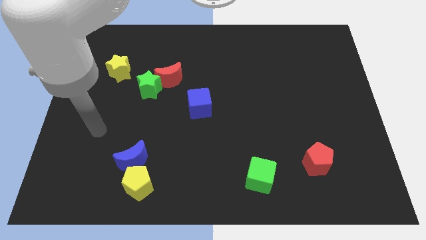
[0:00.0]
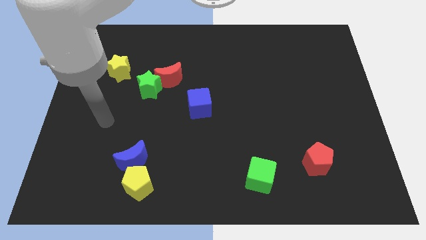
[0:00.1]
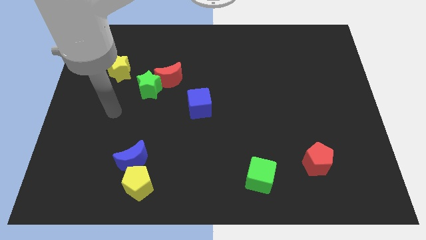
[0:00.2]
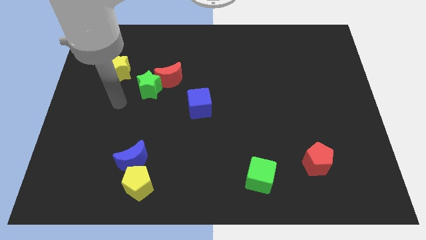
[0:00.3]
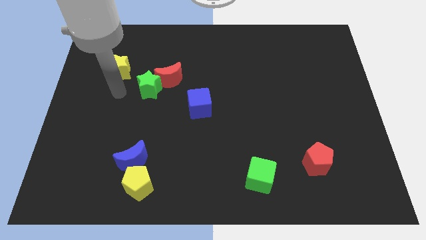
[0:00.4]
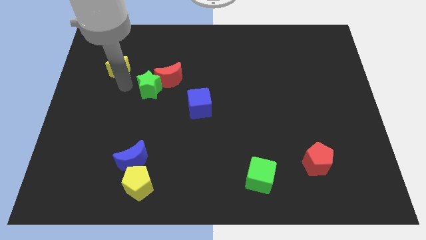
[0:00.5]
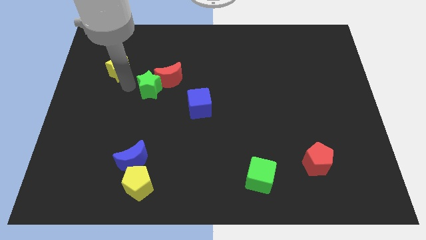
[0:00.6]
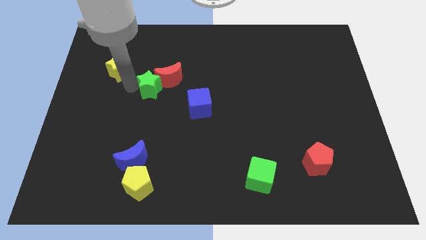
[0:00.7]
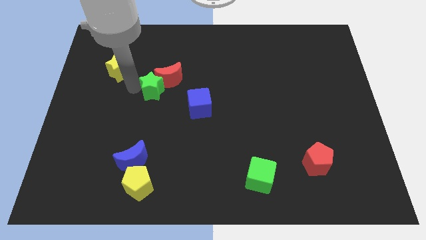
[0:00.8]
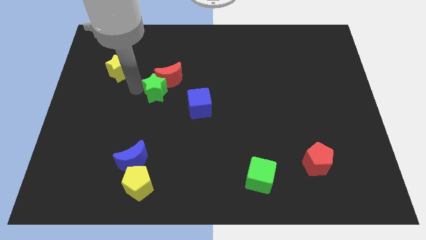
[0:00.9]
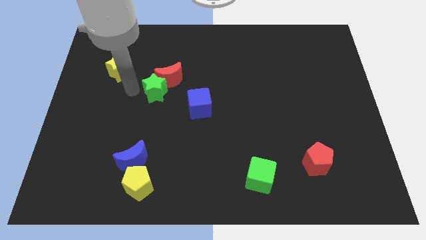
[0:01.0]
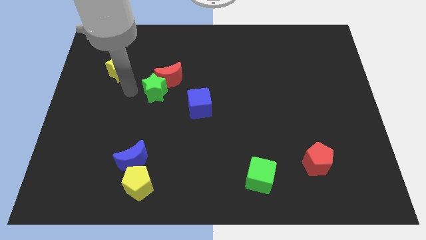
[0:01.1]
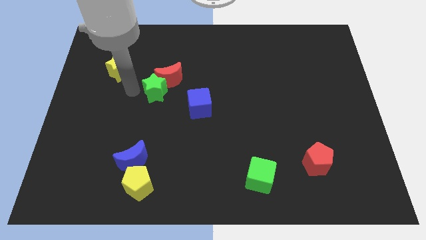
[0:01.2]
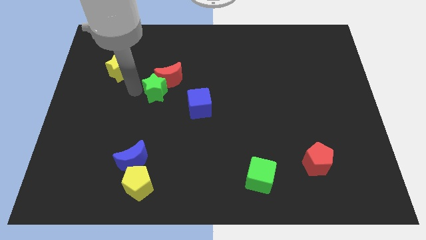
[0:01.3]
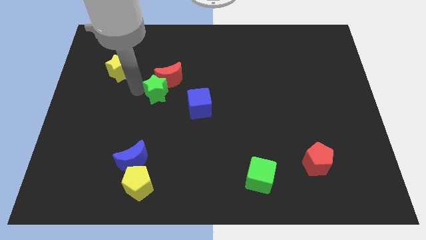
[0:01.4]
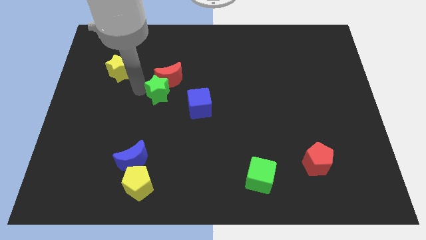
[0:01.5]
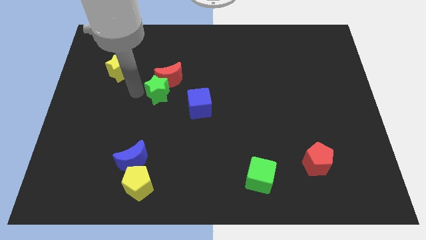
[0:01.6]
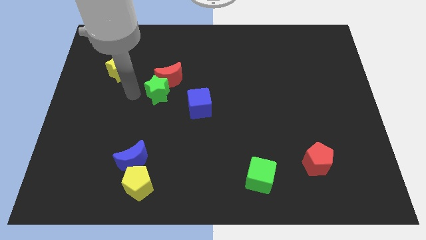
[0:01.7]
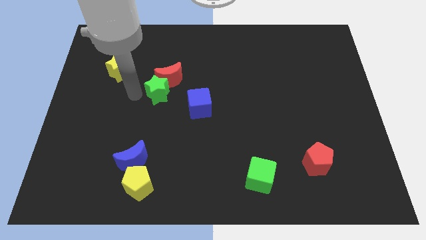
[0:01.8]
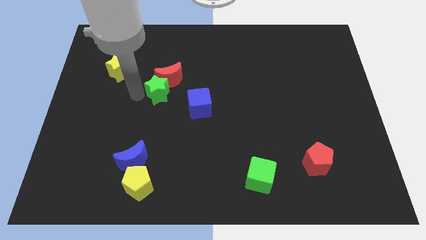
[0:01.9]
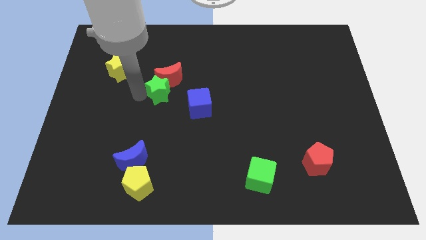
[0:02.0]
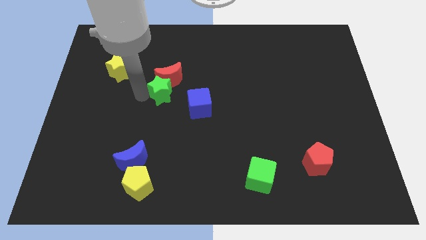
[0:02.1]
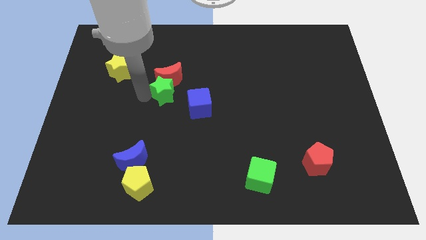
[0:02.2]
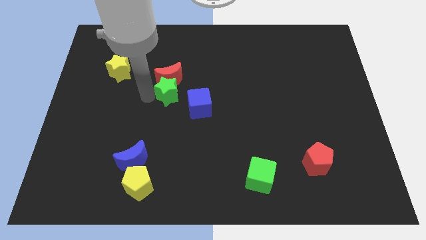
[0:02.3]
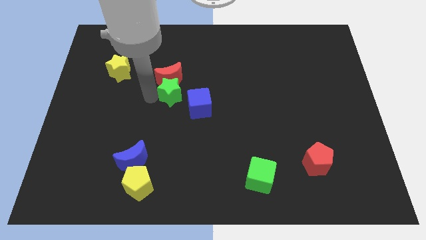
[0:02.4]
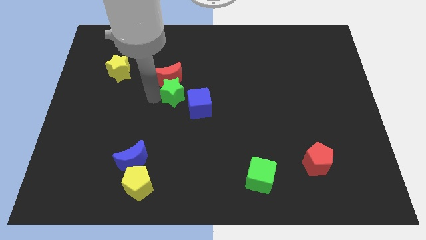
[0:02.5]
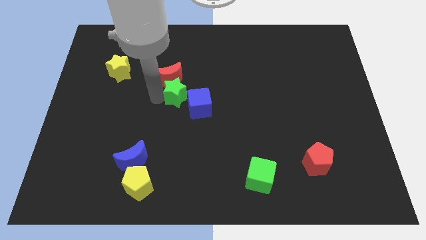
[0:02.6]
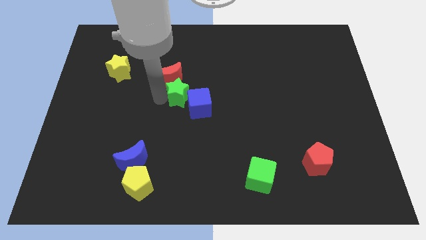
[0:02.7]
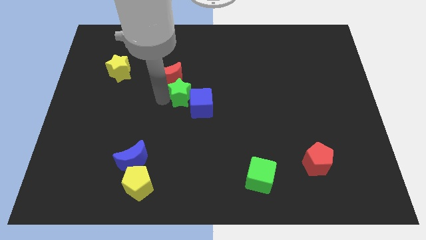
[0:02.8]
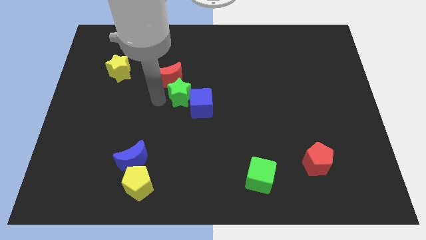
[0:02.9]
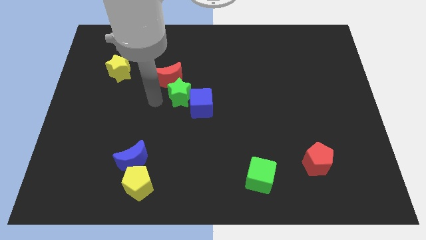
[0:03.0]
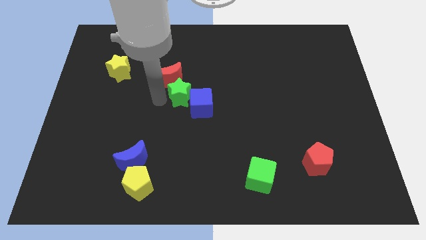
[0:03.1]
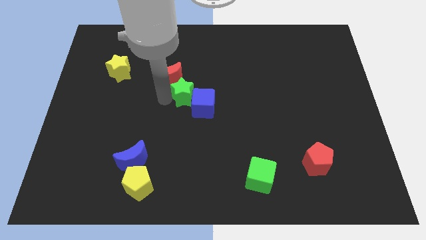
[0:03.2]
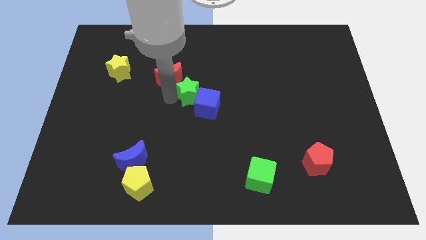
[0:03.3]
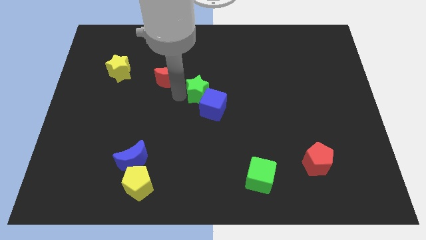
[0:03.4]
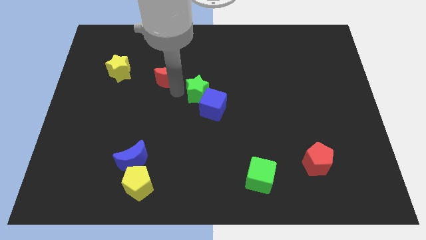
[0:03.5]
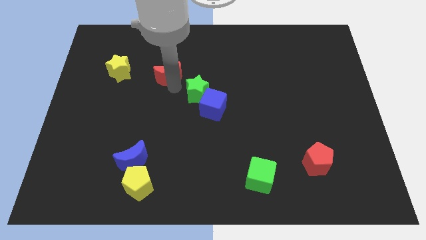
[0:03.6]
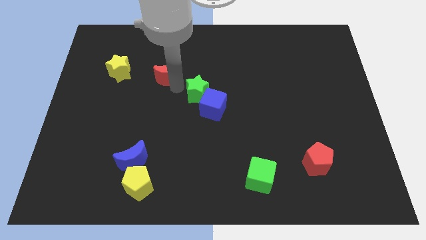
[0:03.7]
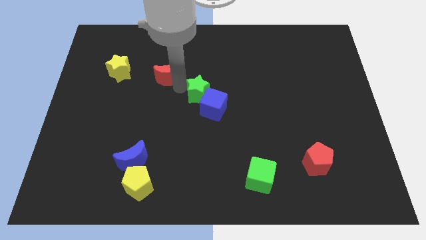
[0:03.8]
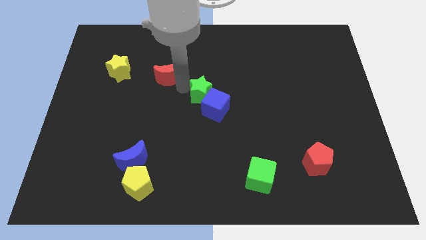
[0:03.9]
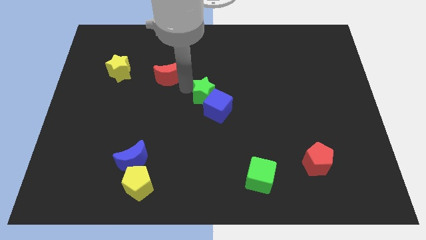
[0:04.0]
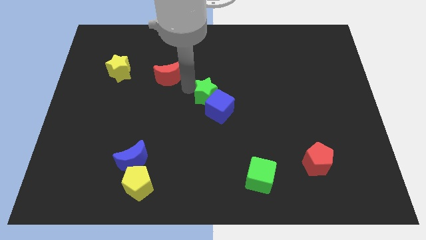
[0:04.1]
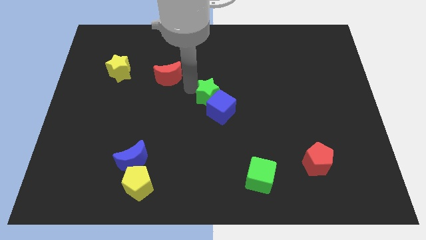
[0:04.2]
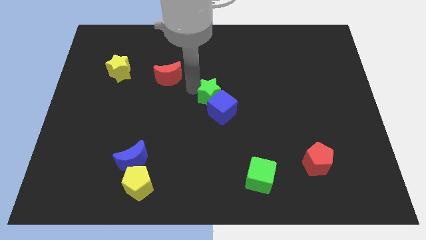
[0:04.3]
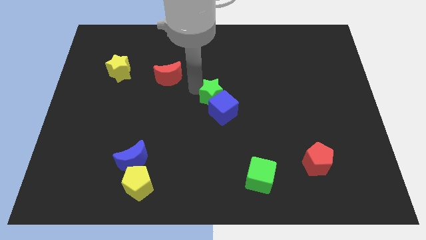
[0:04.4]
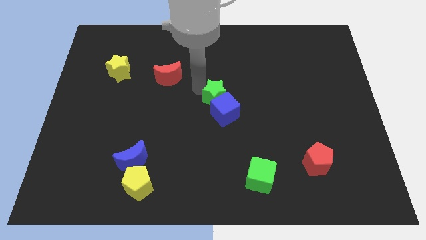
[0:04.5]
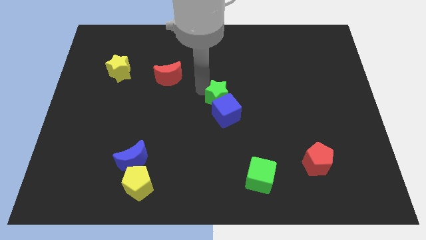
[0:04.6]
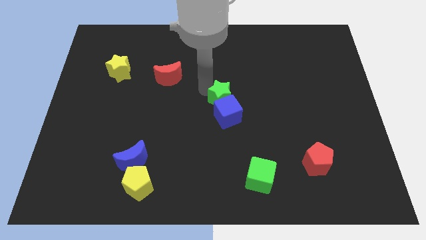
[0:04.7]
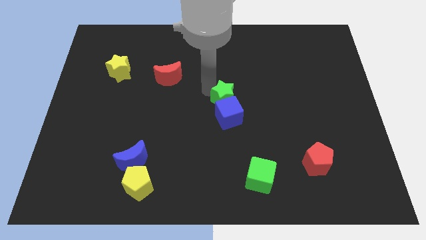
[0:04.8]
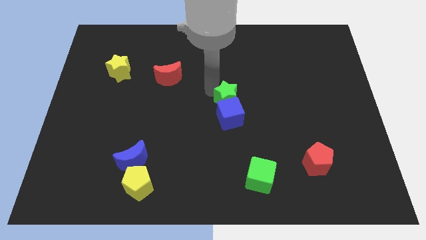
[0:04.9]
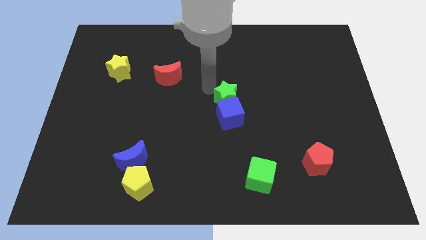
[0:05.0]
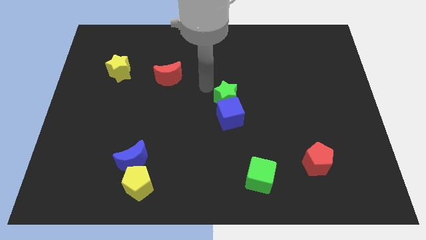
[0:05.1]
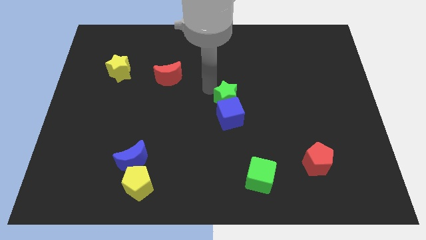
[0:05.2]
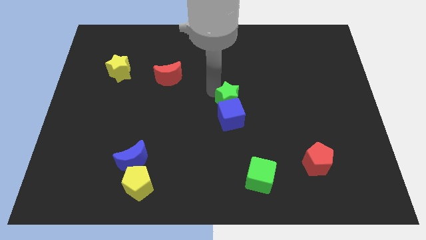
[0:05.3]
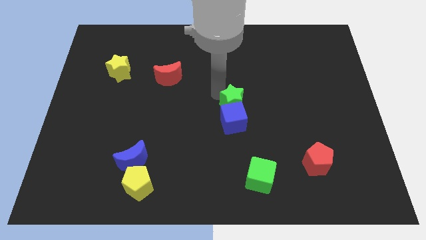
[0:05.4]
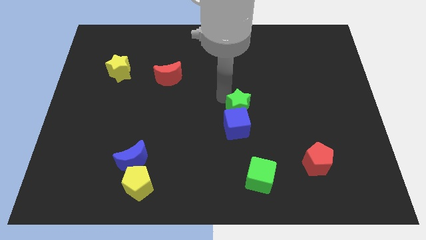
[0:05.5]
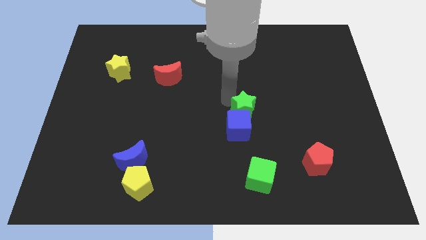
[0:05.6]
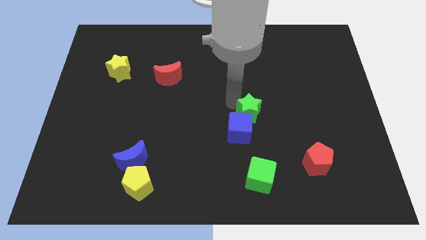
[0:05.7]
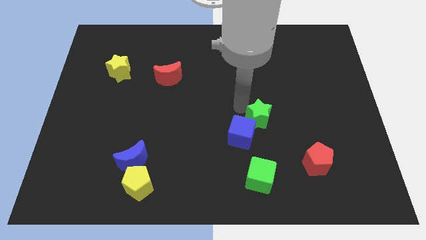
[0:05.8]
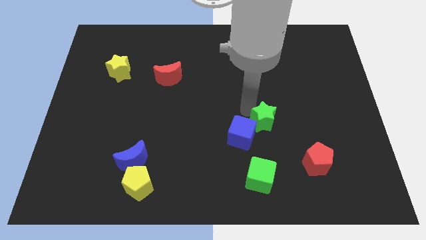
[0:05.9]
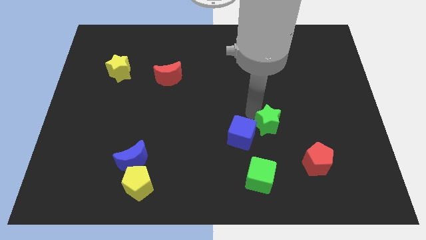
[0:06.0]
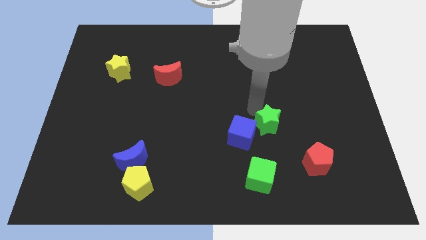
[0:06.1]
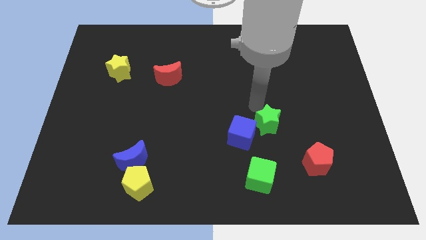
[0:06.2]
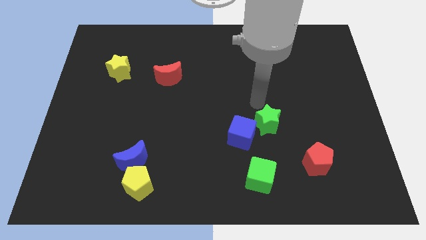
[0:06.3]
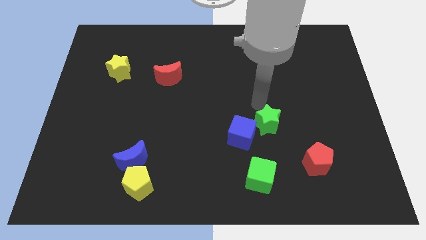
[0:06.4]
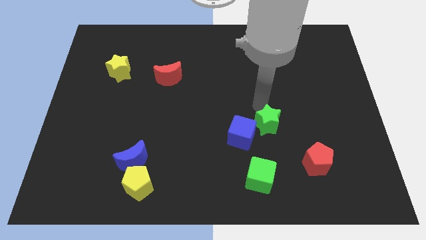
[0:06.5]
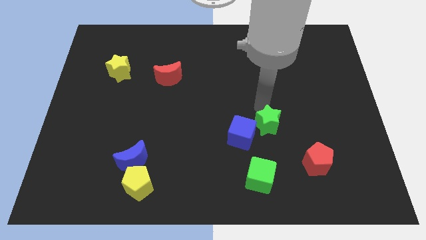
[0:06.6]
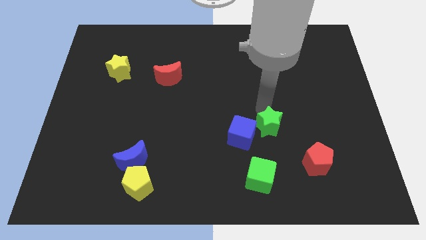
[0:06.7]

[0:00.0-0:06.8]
push the green star to the top left side of the red pentagon
